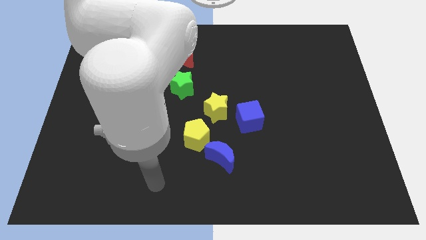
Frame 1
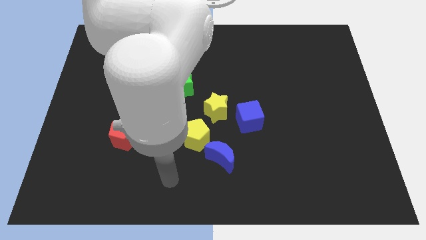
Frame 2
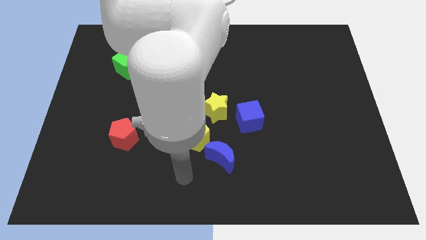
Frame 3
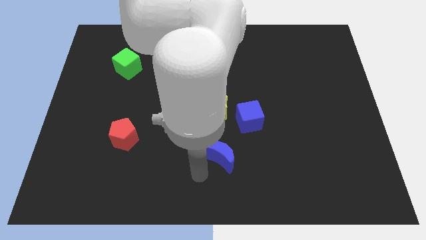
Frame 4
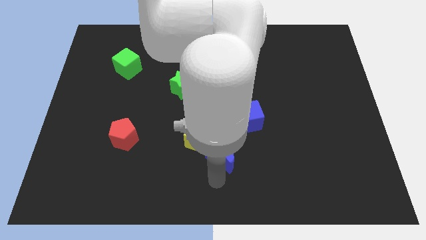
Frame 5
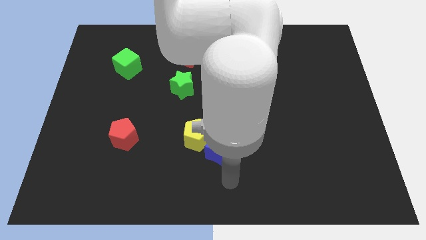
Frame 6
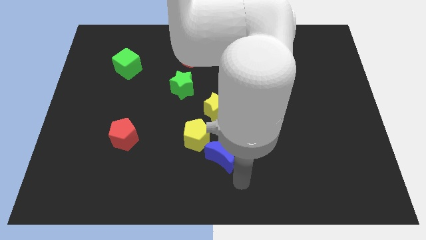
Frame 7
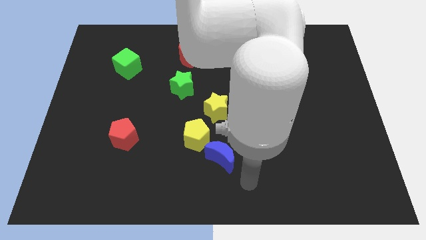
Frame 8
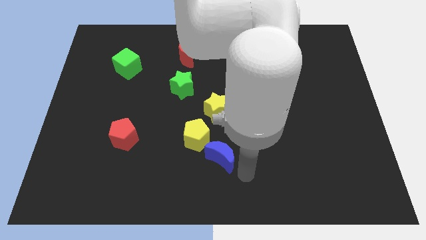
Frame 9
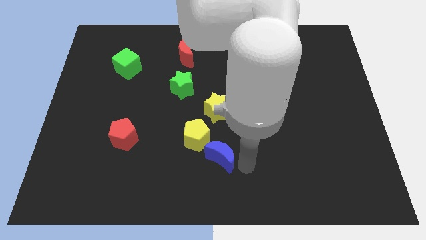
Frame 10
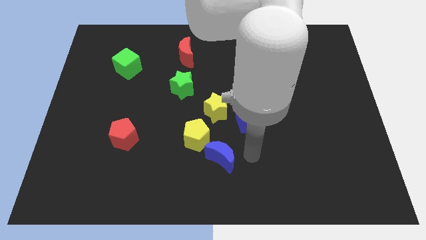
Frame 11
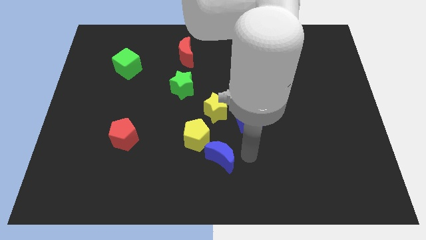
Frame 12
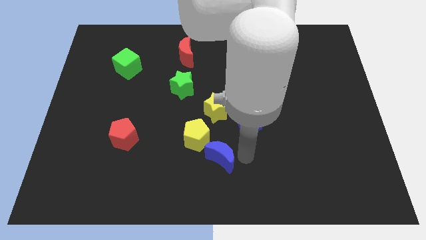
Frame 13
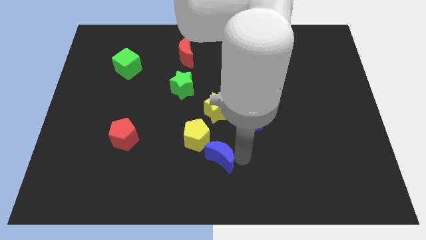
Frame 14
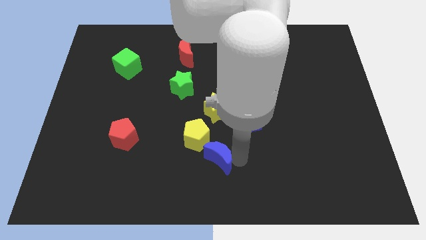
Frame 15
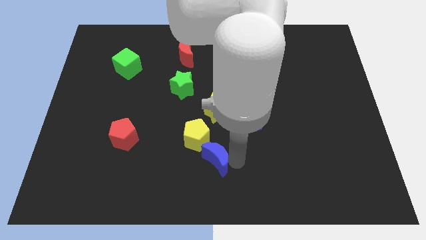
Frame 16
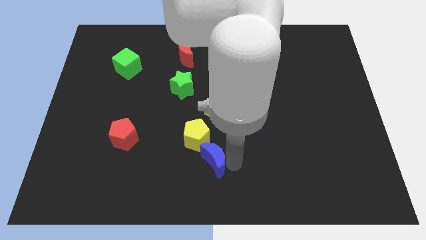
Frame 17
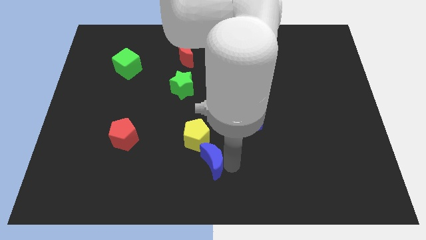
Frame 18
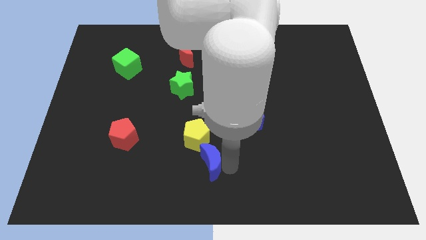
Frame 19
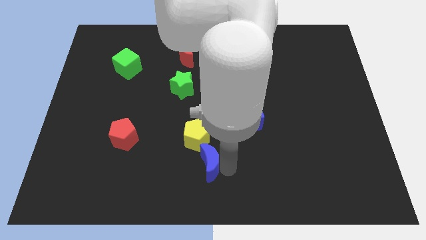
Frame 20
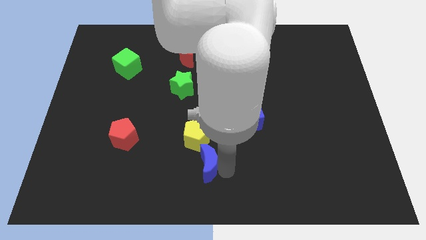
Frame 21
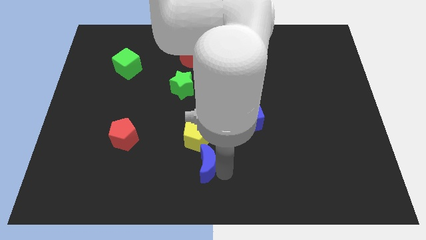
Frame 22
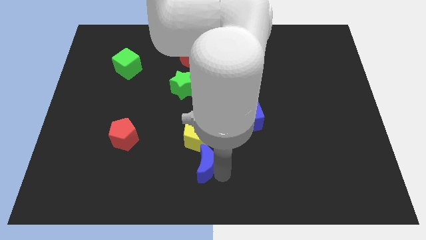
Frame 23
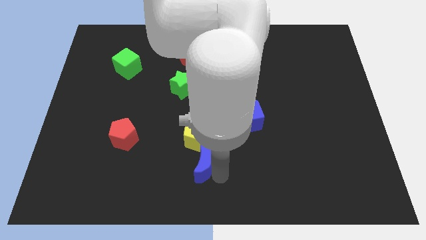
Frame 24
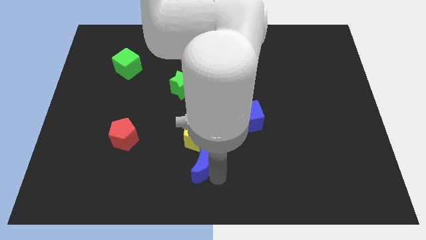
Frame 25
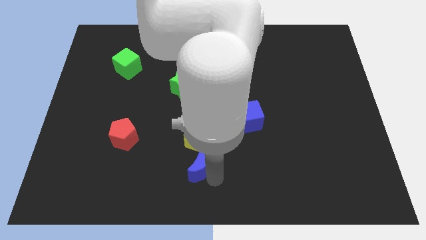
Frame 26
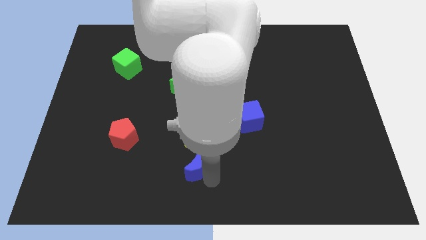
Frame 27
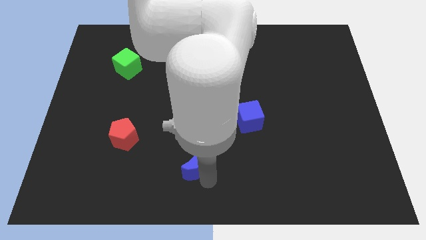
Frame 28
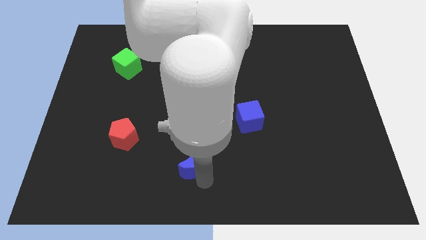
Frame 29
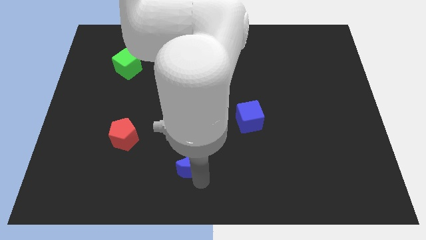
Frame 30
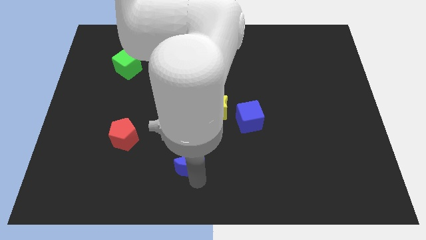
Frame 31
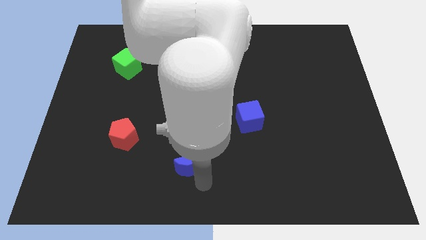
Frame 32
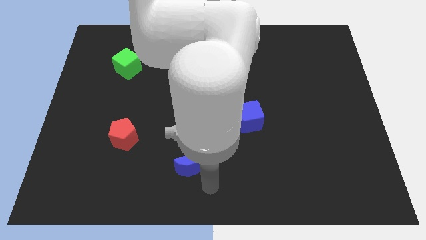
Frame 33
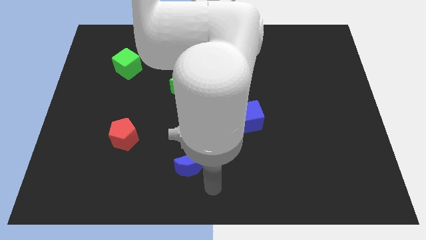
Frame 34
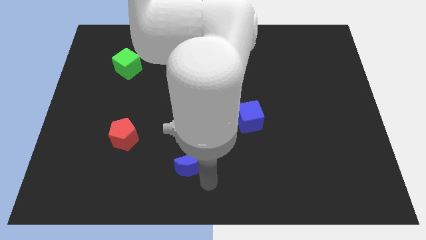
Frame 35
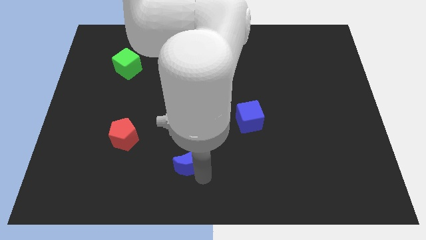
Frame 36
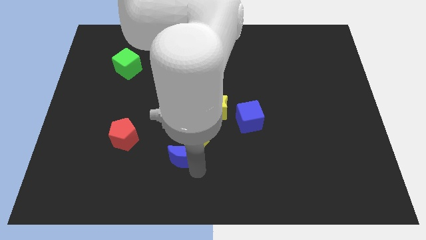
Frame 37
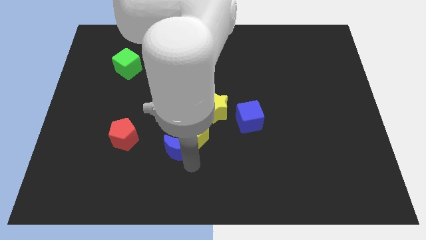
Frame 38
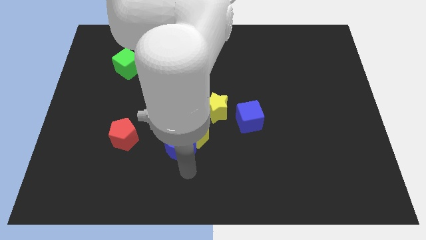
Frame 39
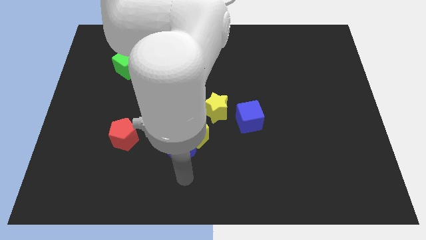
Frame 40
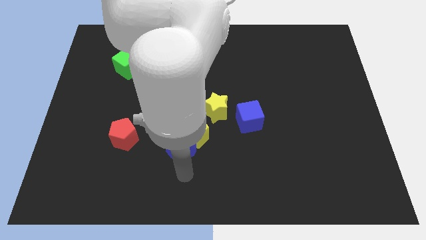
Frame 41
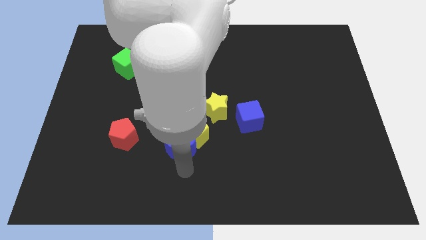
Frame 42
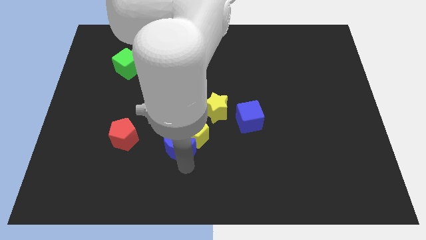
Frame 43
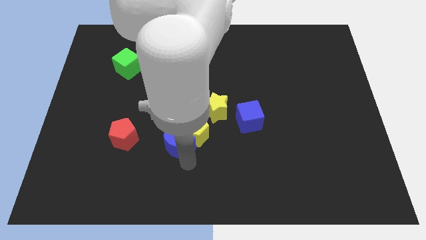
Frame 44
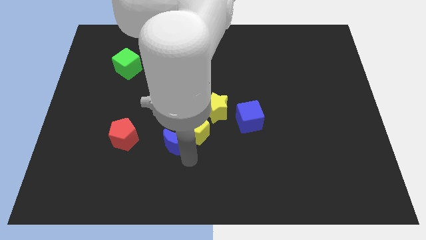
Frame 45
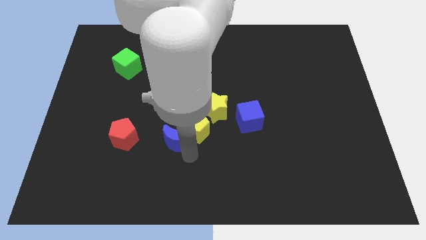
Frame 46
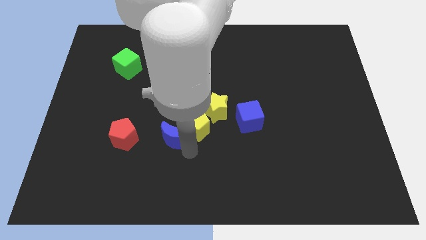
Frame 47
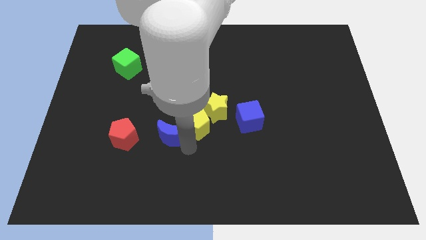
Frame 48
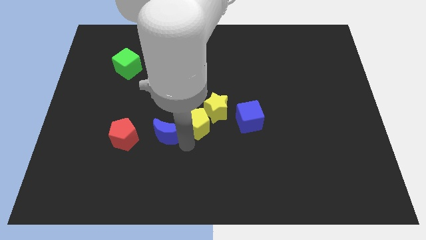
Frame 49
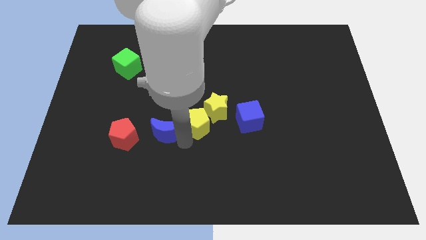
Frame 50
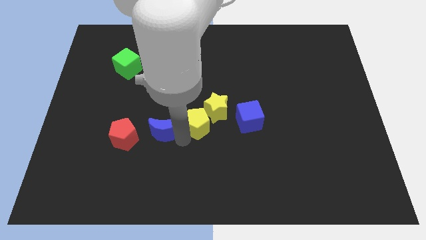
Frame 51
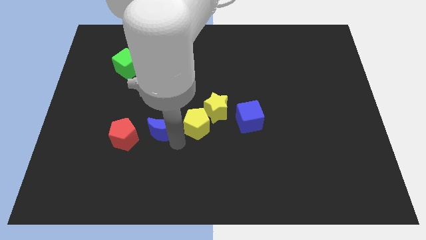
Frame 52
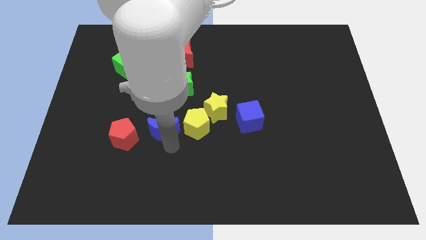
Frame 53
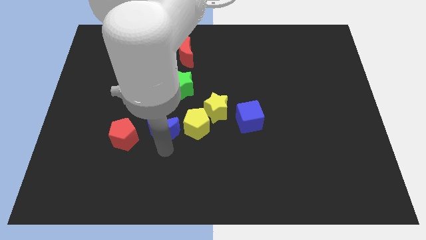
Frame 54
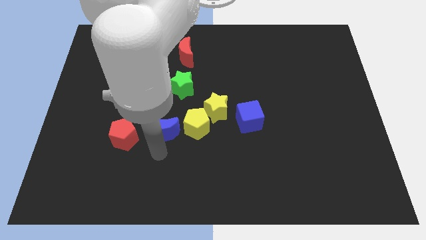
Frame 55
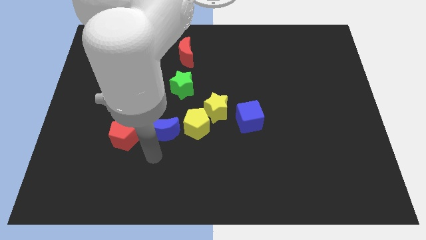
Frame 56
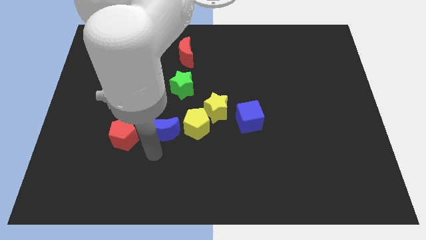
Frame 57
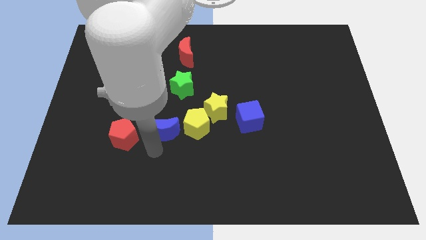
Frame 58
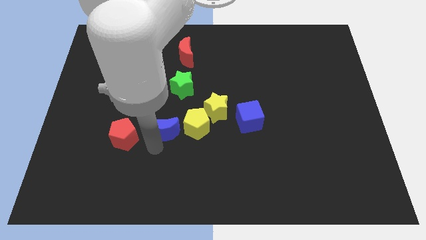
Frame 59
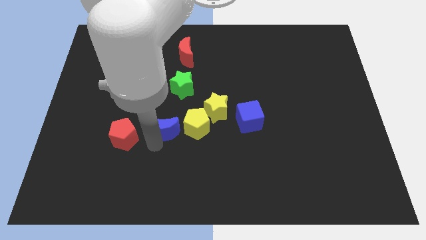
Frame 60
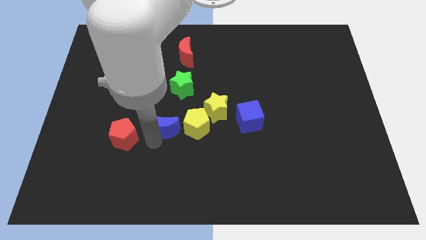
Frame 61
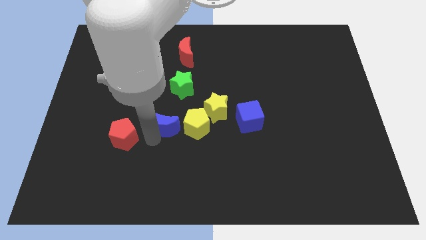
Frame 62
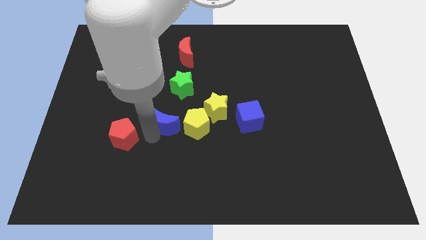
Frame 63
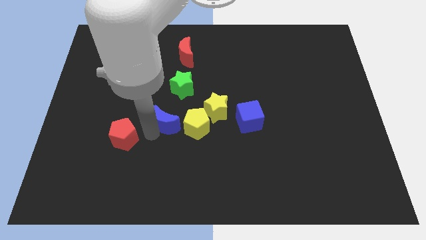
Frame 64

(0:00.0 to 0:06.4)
slide the blue moon to the top left side of the yellow pentagon
